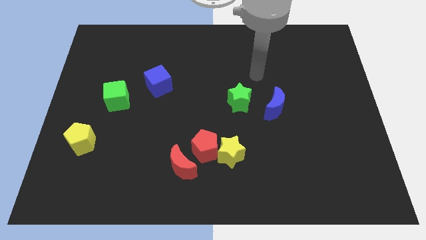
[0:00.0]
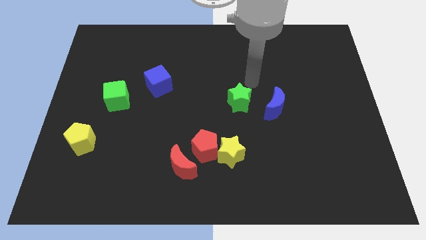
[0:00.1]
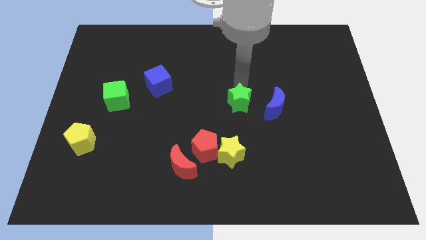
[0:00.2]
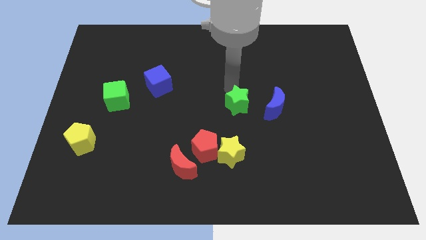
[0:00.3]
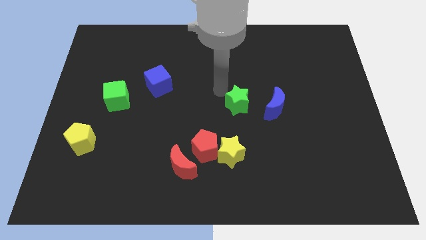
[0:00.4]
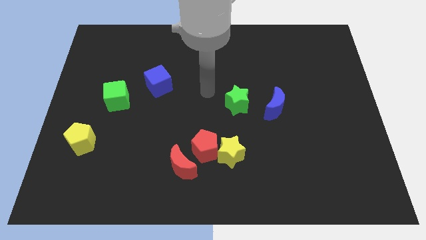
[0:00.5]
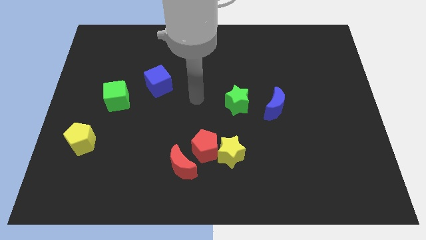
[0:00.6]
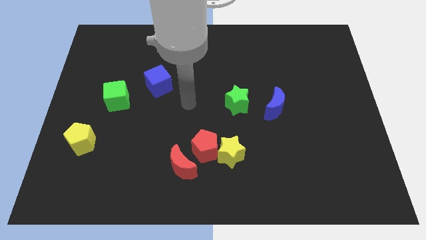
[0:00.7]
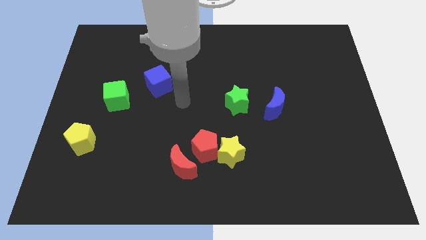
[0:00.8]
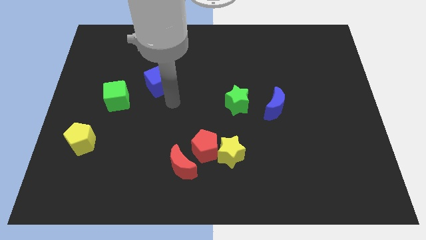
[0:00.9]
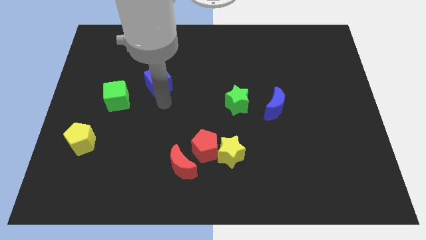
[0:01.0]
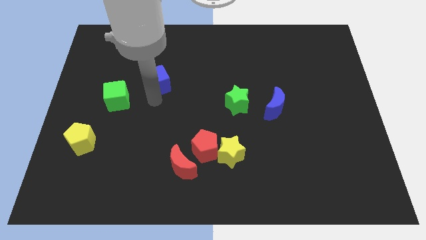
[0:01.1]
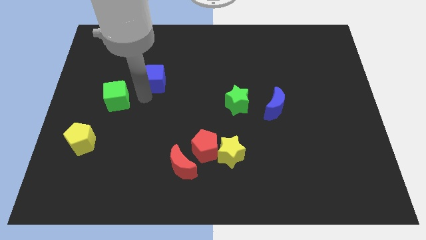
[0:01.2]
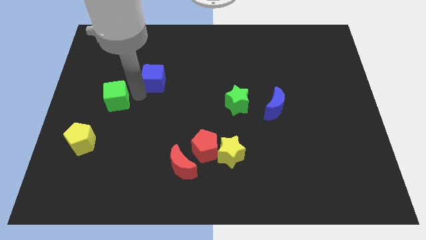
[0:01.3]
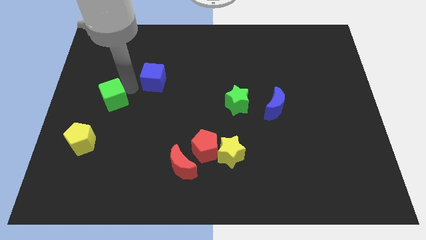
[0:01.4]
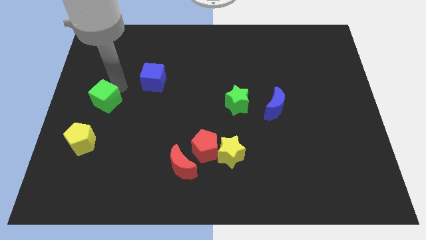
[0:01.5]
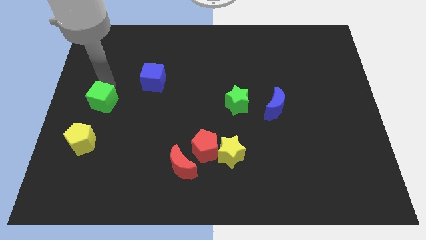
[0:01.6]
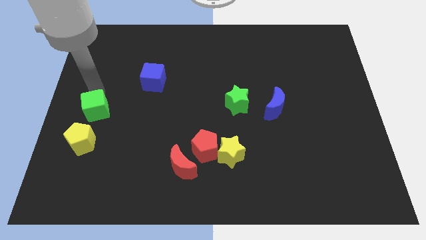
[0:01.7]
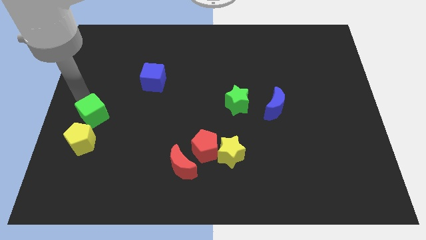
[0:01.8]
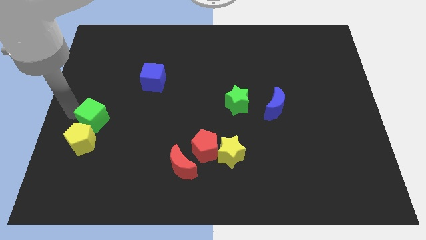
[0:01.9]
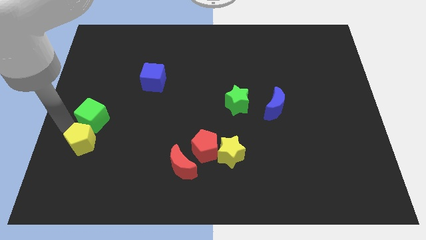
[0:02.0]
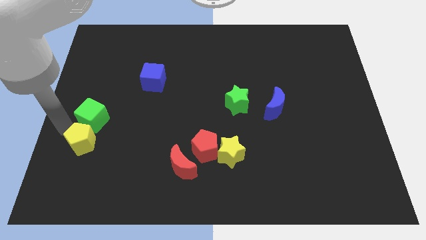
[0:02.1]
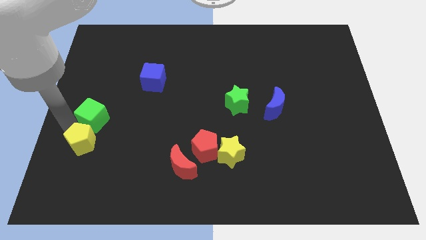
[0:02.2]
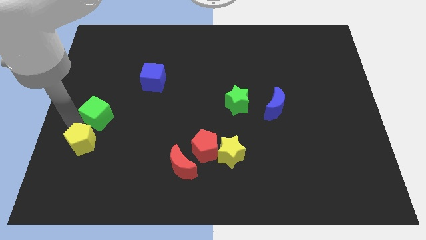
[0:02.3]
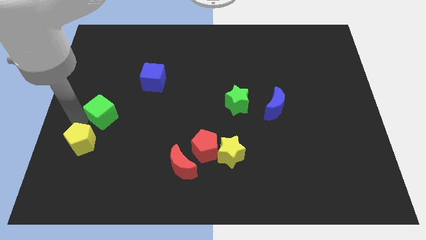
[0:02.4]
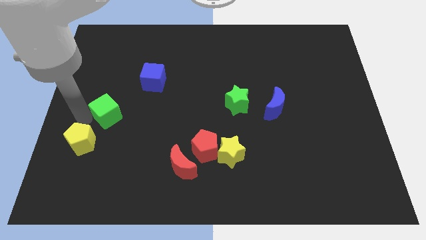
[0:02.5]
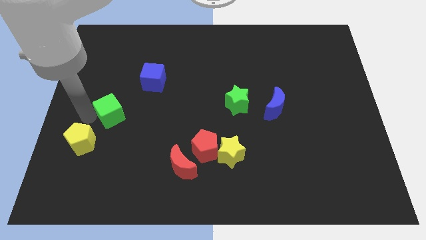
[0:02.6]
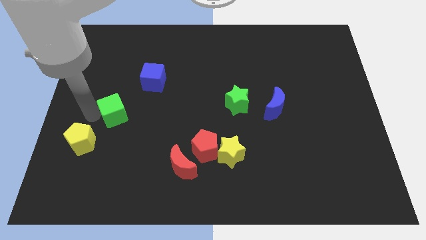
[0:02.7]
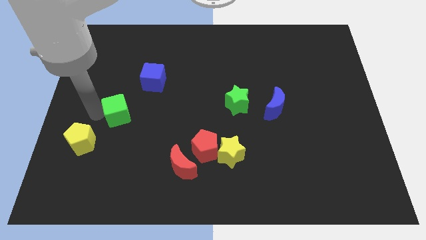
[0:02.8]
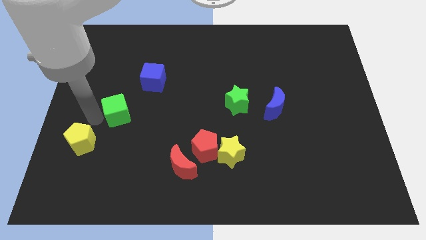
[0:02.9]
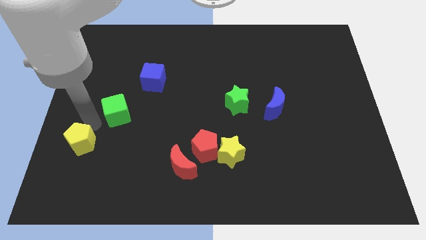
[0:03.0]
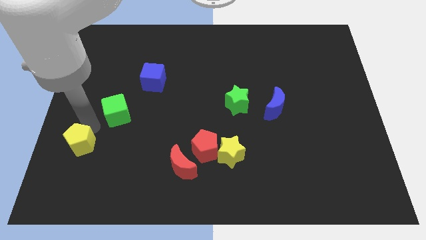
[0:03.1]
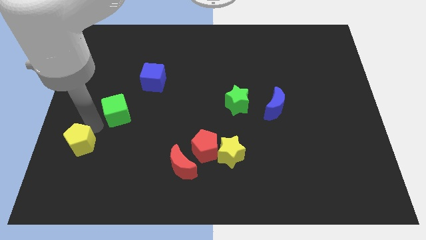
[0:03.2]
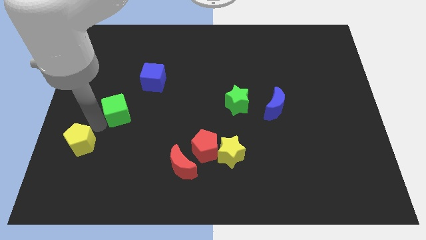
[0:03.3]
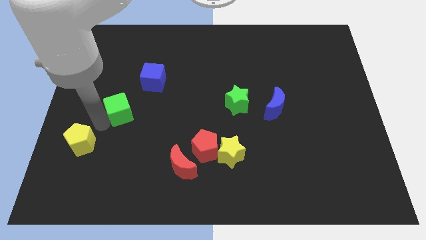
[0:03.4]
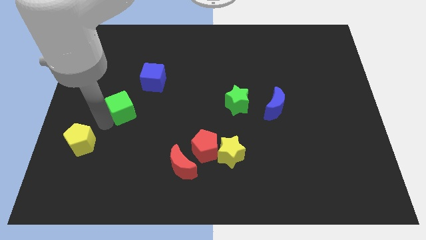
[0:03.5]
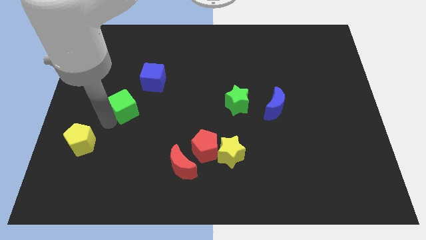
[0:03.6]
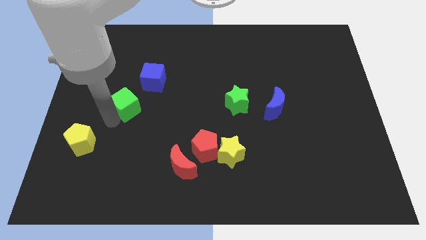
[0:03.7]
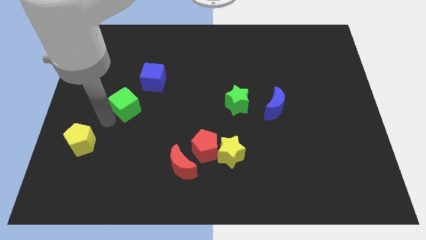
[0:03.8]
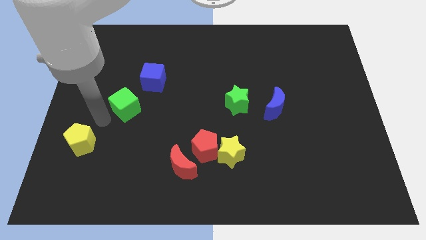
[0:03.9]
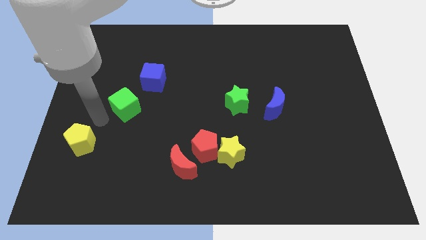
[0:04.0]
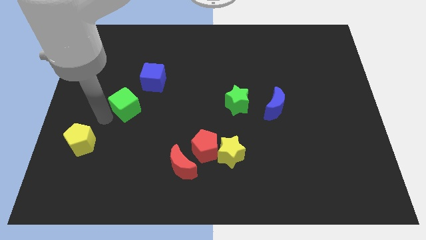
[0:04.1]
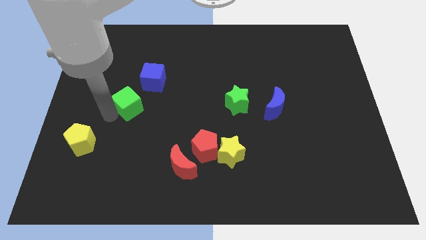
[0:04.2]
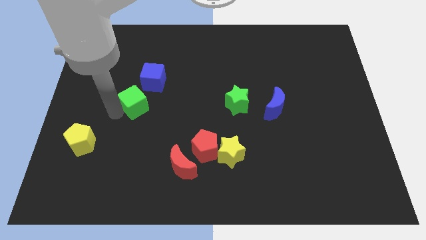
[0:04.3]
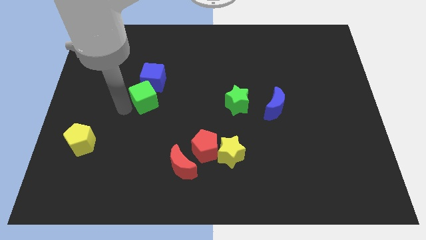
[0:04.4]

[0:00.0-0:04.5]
push the green cube slightly right

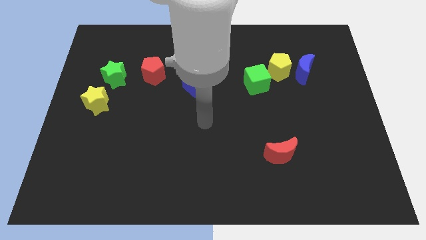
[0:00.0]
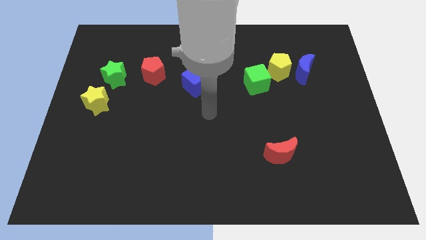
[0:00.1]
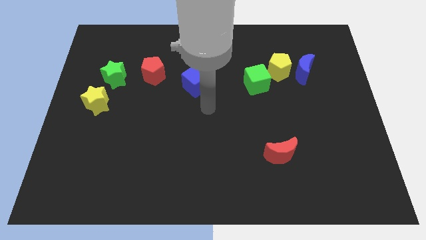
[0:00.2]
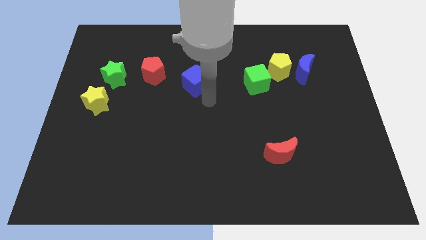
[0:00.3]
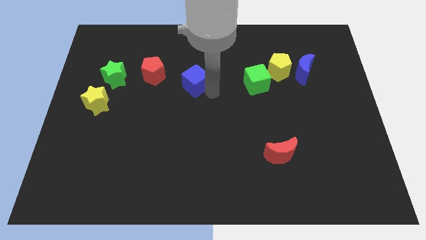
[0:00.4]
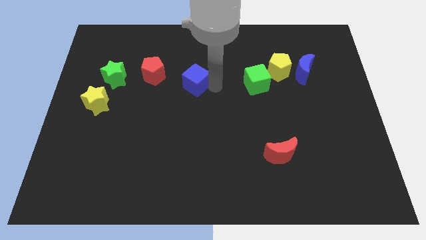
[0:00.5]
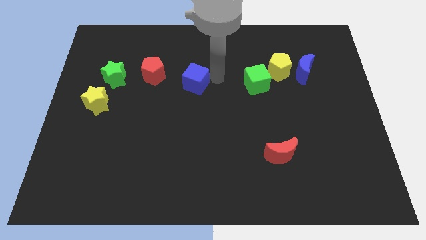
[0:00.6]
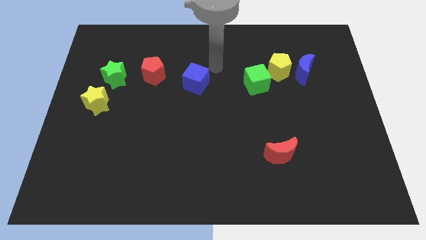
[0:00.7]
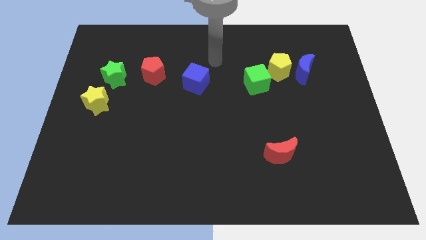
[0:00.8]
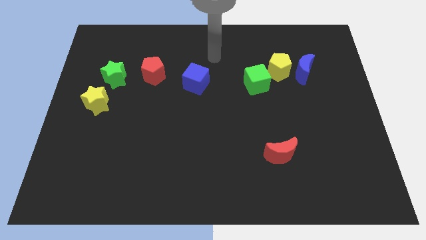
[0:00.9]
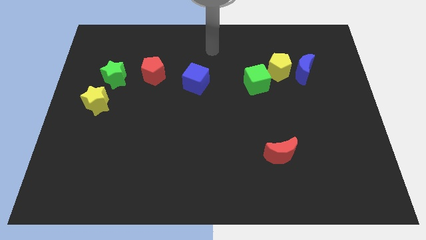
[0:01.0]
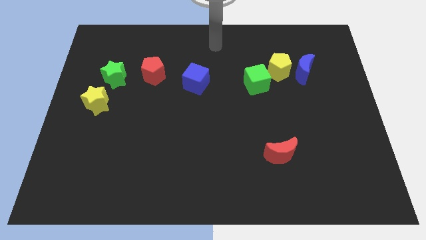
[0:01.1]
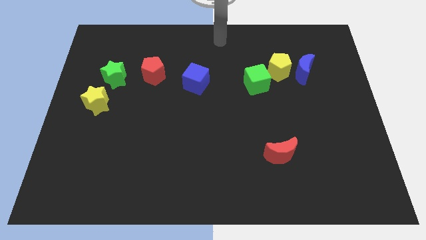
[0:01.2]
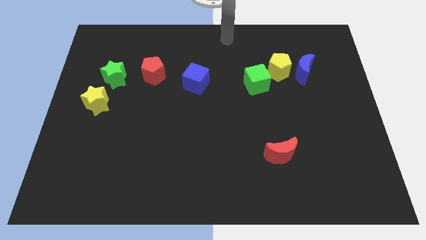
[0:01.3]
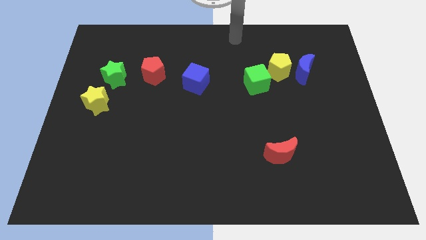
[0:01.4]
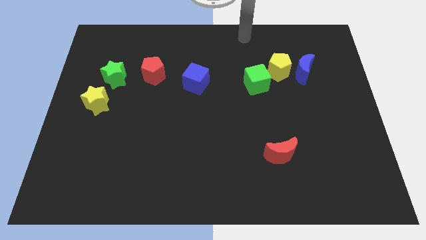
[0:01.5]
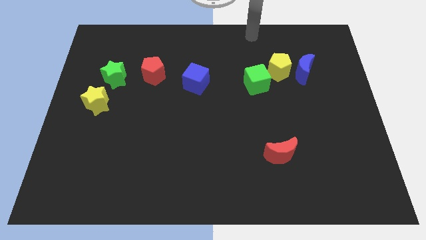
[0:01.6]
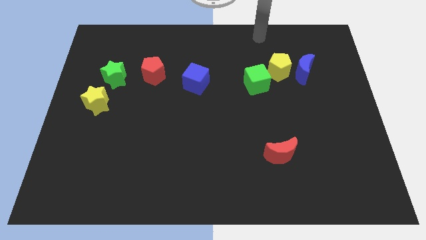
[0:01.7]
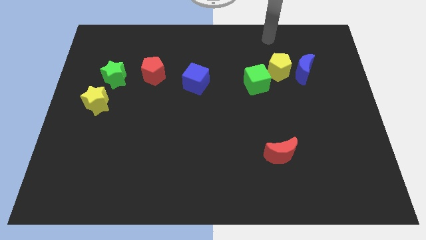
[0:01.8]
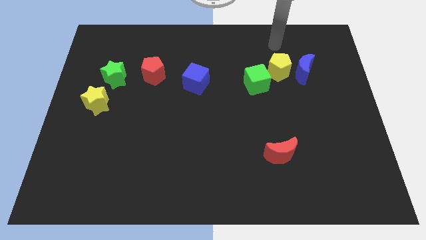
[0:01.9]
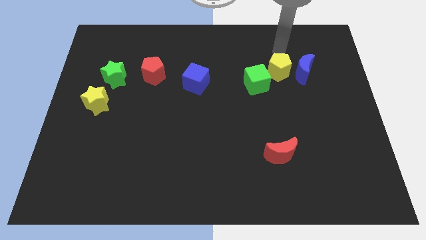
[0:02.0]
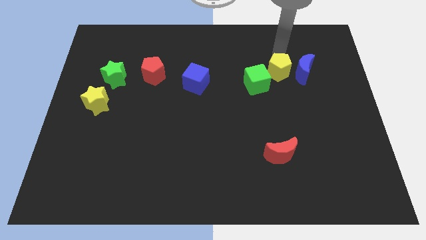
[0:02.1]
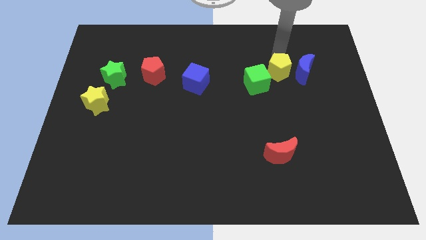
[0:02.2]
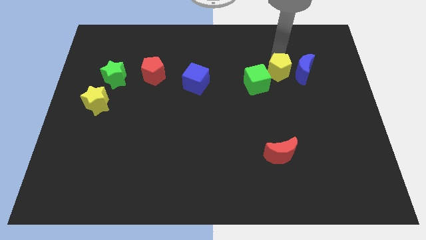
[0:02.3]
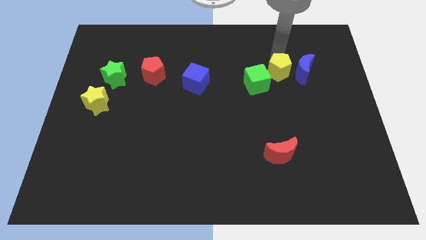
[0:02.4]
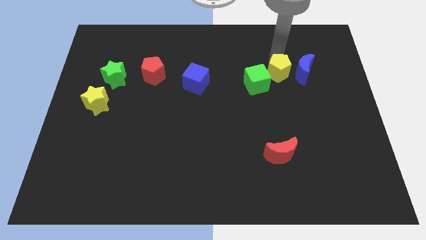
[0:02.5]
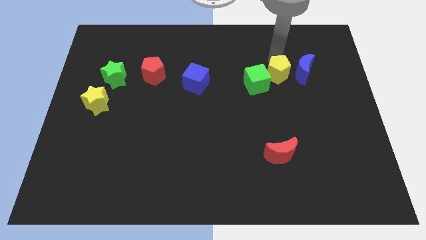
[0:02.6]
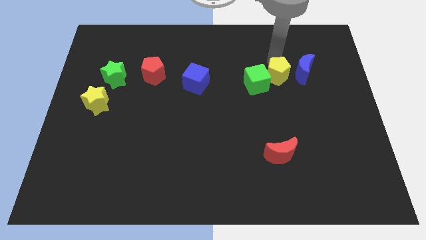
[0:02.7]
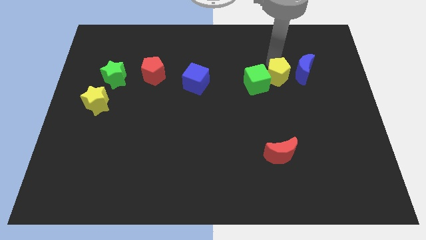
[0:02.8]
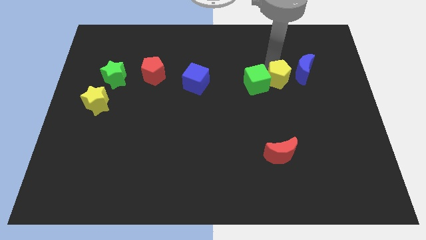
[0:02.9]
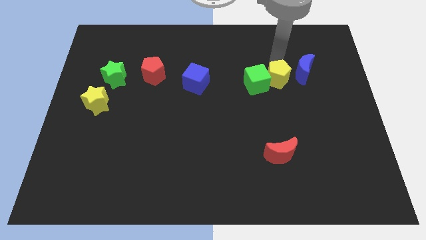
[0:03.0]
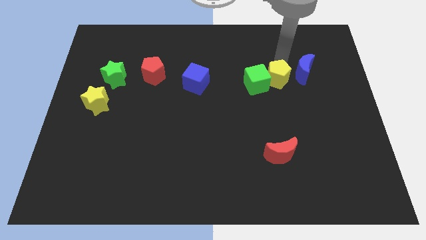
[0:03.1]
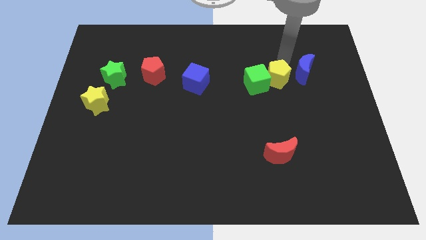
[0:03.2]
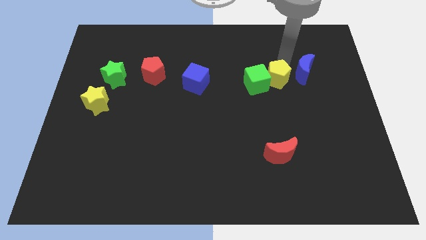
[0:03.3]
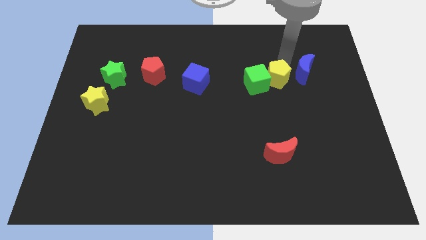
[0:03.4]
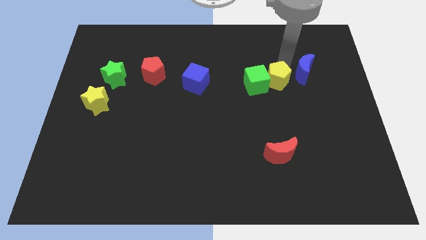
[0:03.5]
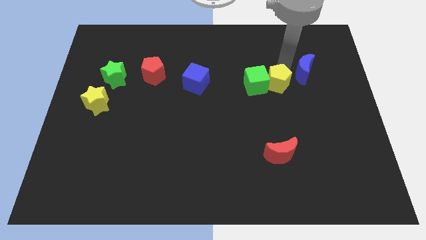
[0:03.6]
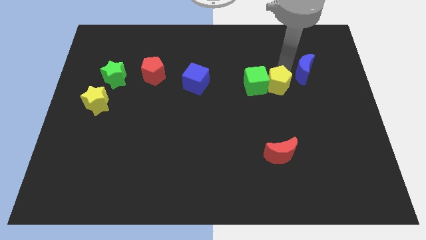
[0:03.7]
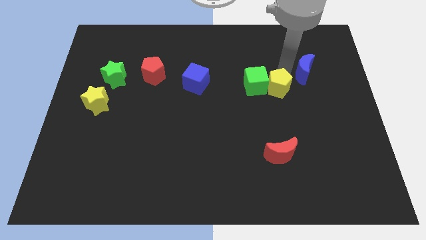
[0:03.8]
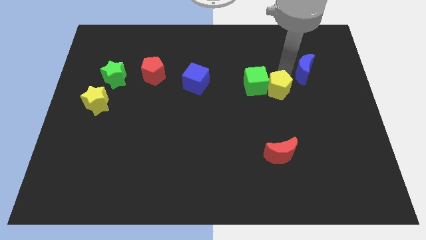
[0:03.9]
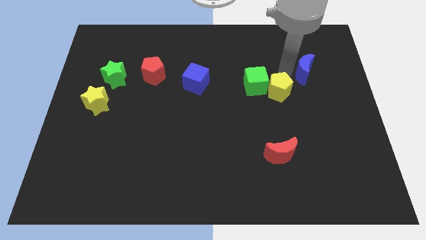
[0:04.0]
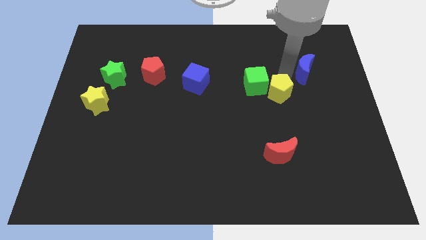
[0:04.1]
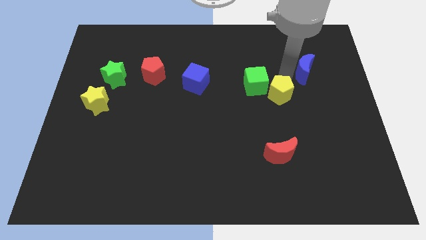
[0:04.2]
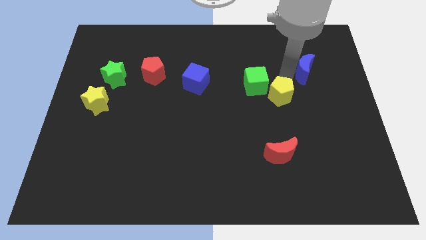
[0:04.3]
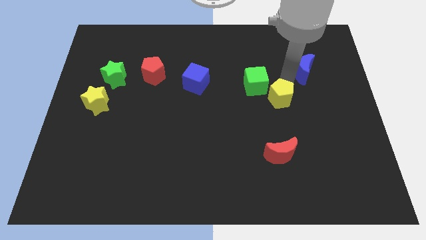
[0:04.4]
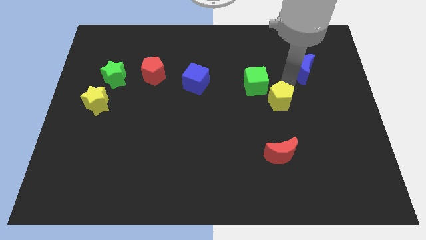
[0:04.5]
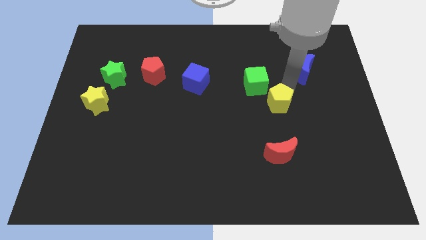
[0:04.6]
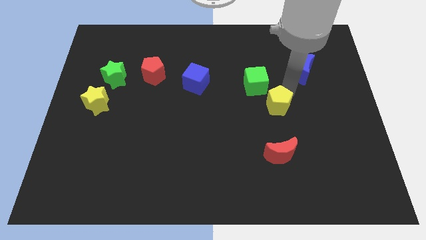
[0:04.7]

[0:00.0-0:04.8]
slide the yellow pentagon down and to the left diagonally a bit
